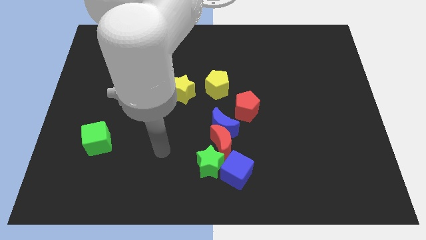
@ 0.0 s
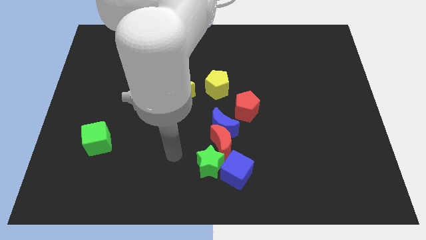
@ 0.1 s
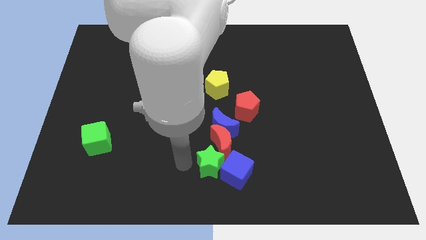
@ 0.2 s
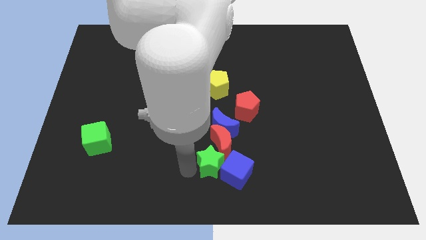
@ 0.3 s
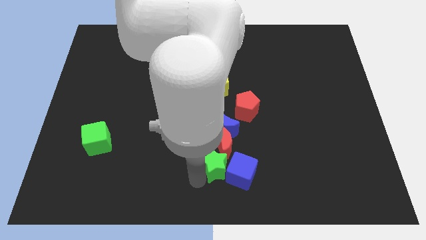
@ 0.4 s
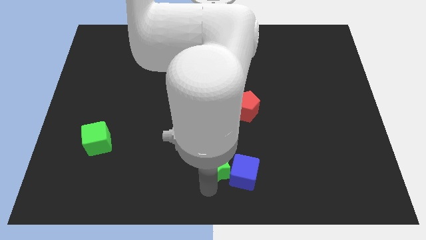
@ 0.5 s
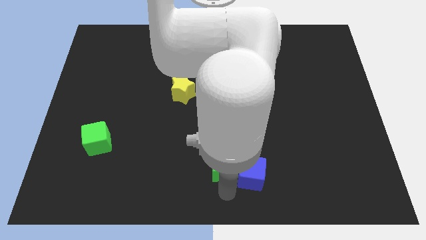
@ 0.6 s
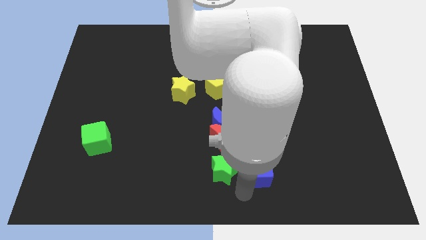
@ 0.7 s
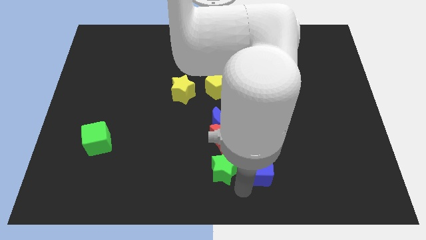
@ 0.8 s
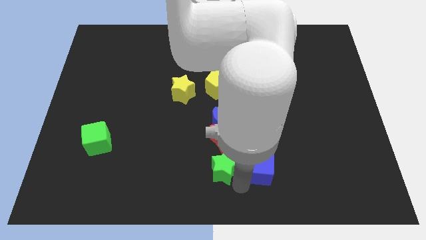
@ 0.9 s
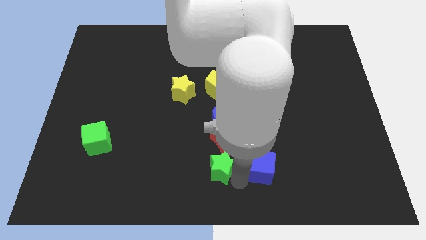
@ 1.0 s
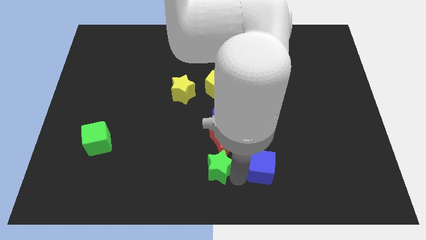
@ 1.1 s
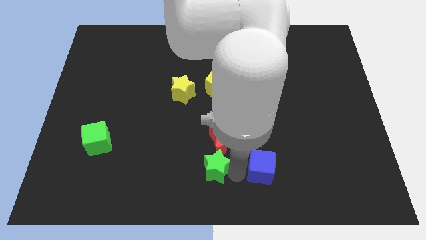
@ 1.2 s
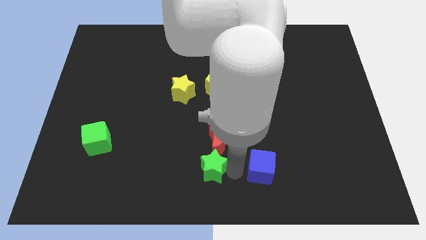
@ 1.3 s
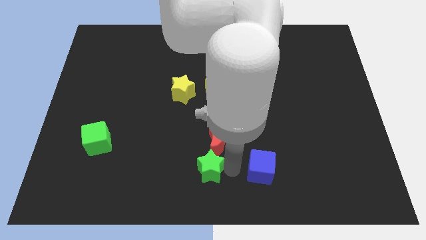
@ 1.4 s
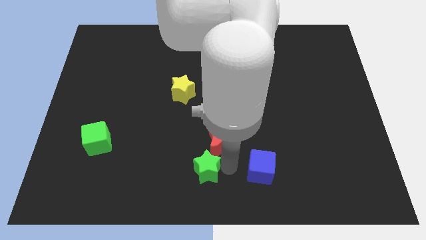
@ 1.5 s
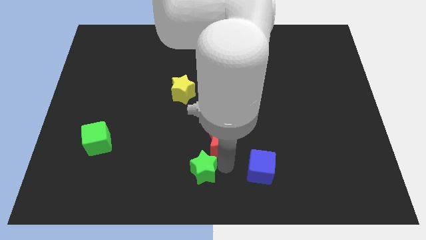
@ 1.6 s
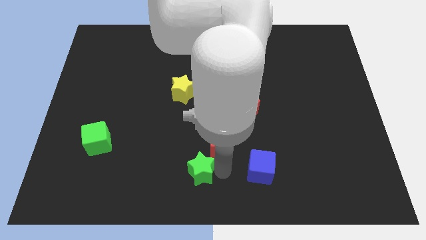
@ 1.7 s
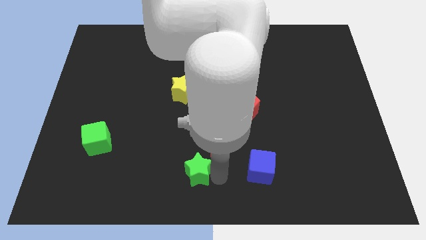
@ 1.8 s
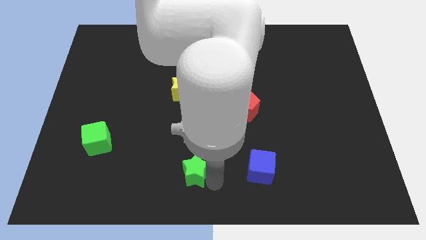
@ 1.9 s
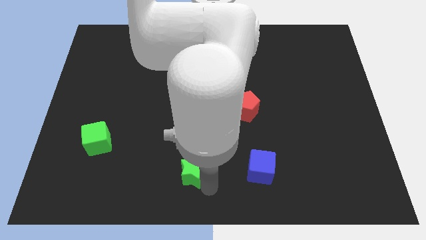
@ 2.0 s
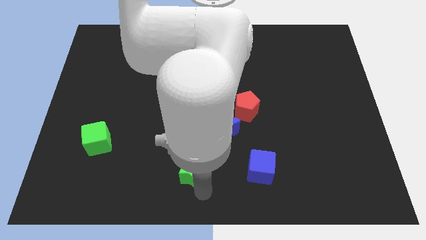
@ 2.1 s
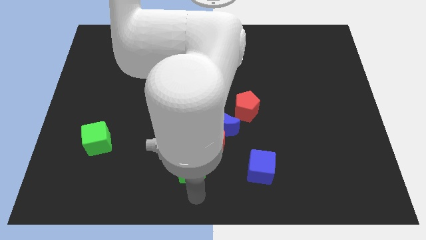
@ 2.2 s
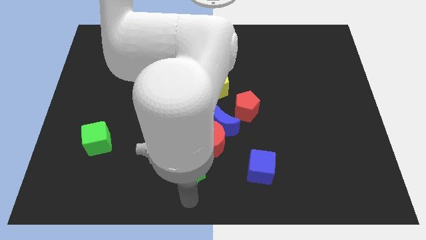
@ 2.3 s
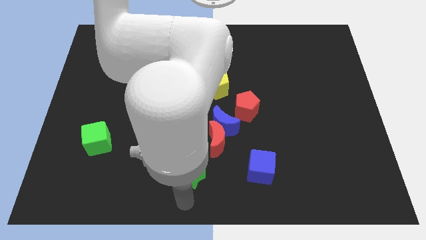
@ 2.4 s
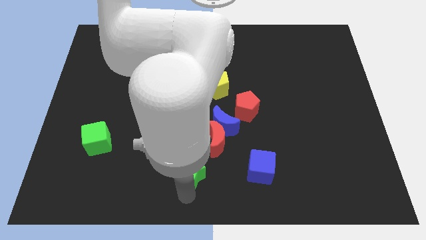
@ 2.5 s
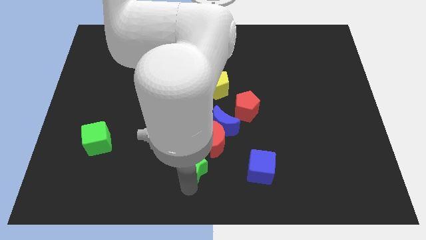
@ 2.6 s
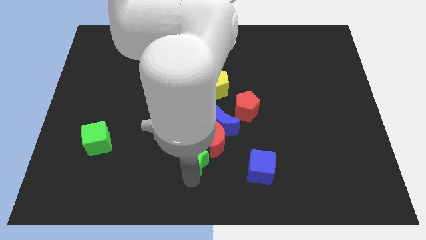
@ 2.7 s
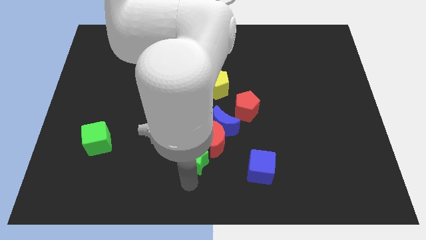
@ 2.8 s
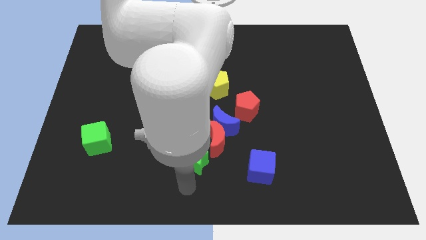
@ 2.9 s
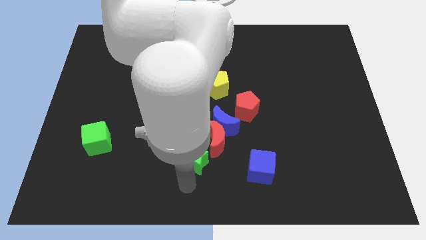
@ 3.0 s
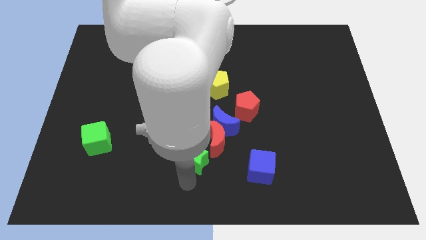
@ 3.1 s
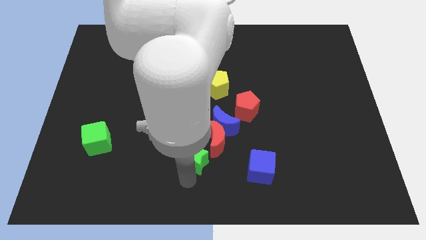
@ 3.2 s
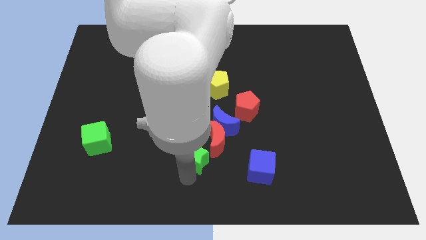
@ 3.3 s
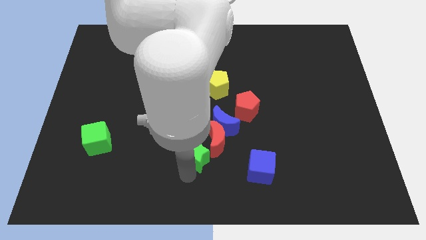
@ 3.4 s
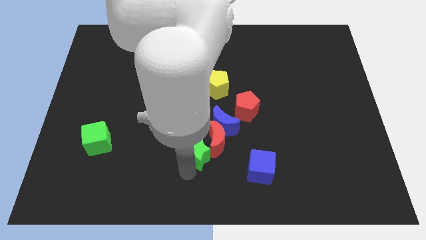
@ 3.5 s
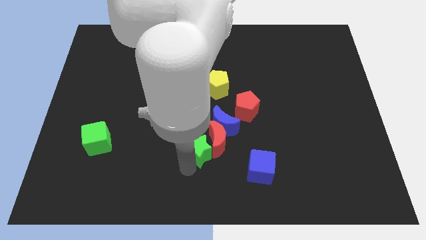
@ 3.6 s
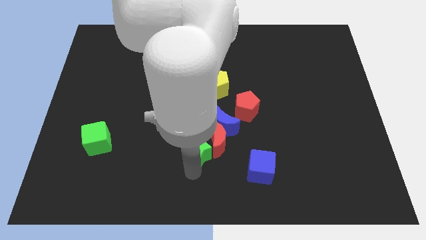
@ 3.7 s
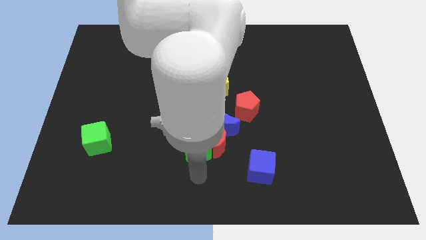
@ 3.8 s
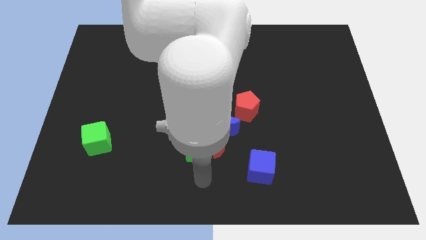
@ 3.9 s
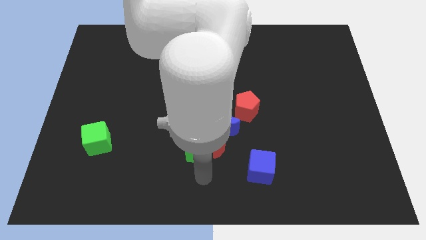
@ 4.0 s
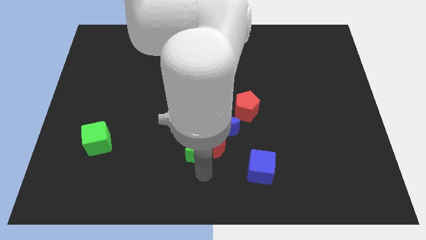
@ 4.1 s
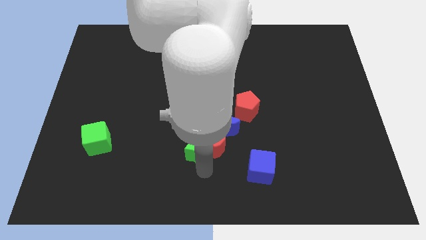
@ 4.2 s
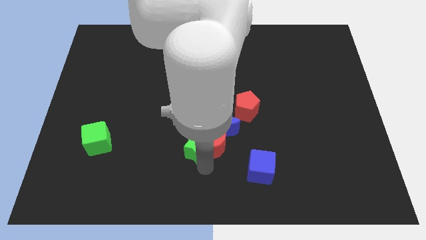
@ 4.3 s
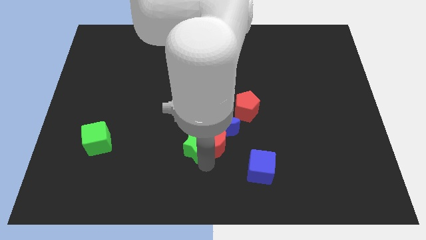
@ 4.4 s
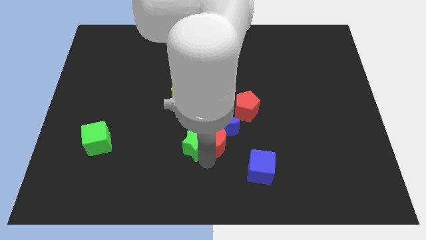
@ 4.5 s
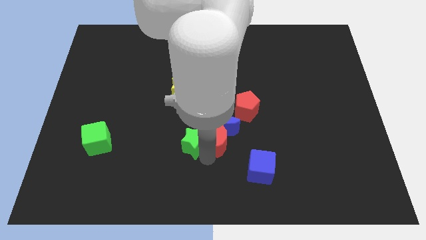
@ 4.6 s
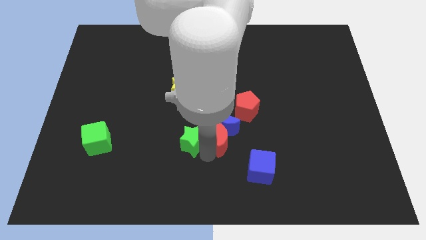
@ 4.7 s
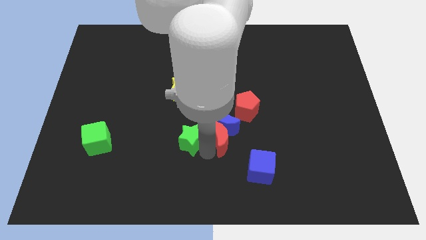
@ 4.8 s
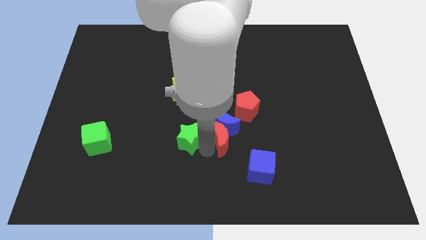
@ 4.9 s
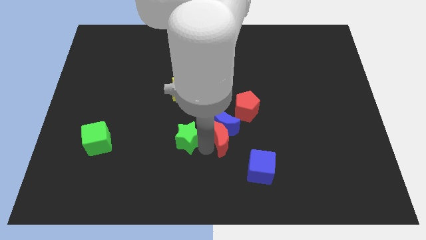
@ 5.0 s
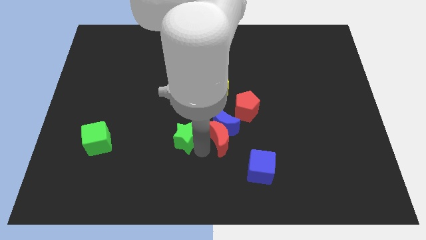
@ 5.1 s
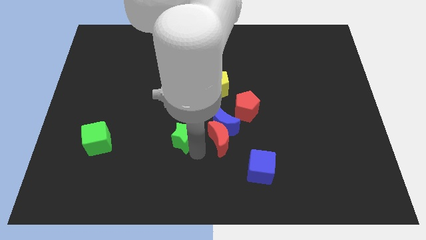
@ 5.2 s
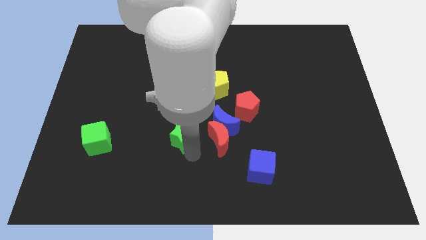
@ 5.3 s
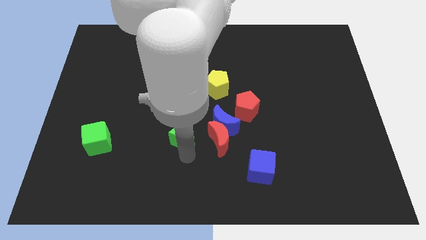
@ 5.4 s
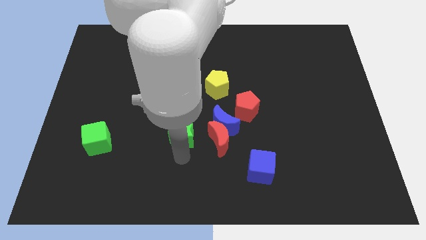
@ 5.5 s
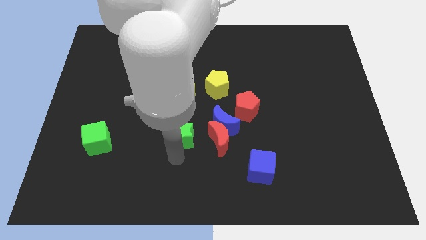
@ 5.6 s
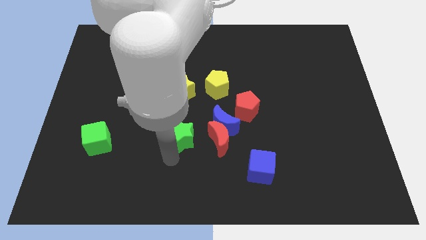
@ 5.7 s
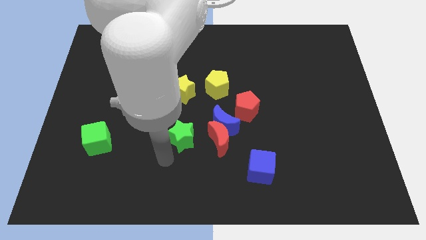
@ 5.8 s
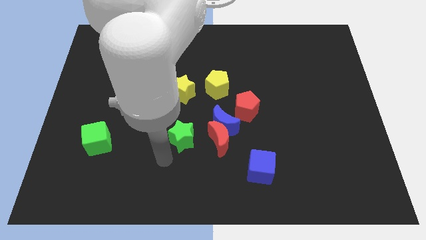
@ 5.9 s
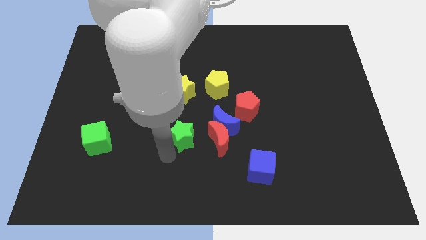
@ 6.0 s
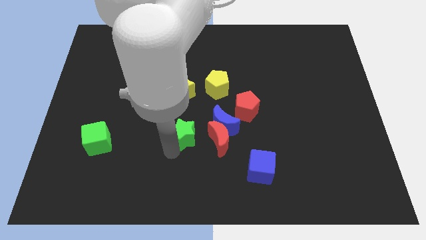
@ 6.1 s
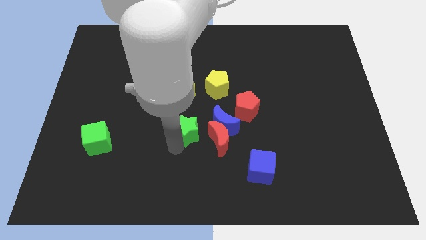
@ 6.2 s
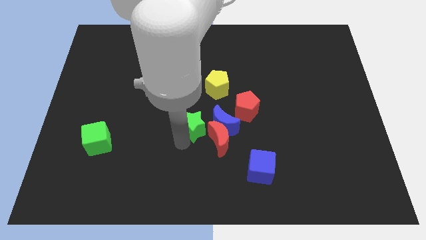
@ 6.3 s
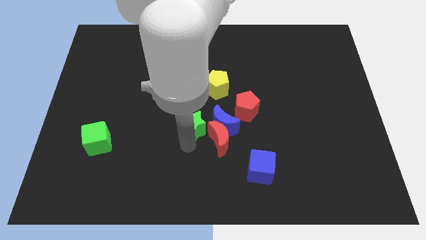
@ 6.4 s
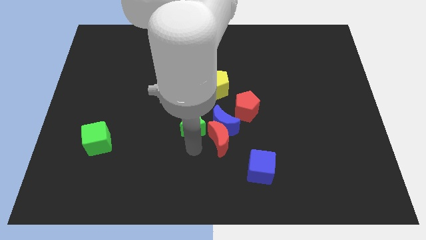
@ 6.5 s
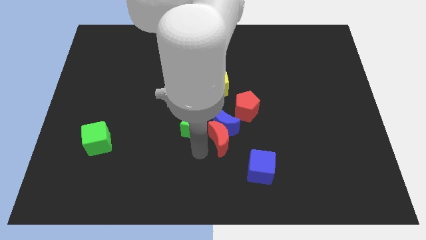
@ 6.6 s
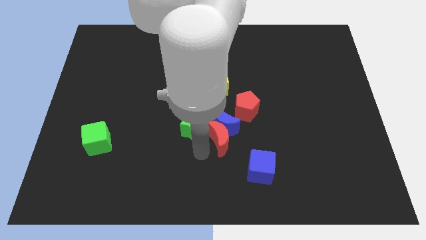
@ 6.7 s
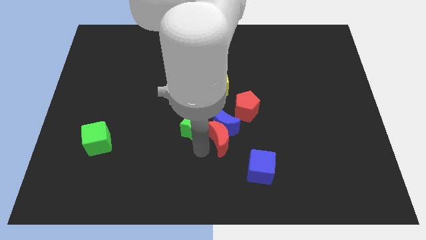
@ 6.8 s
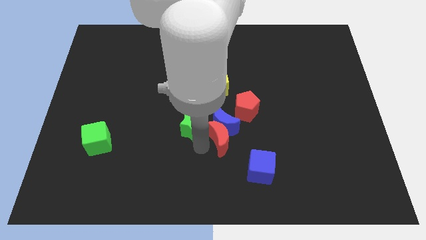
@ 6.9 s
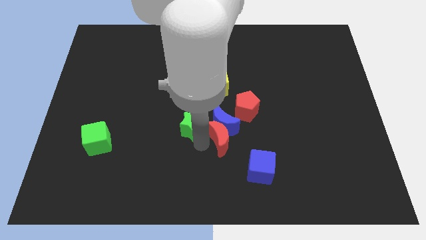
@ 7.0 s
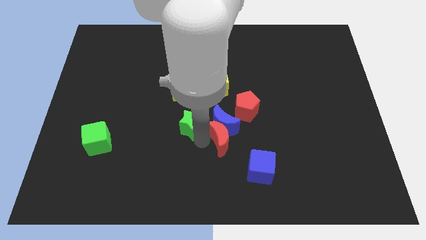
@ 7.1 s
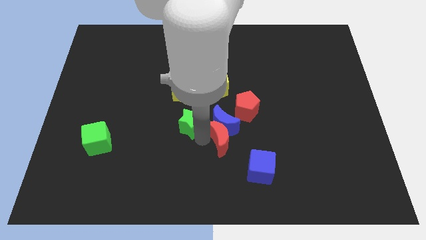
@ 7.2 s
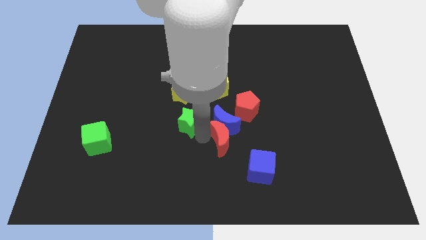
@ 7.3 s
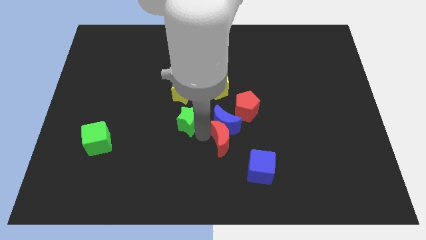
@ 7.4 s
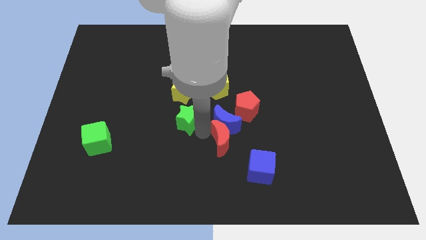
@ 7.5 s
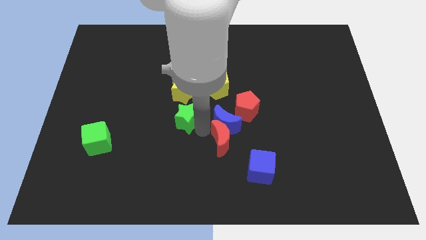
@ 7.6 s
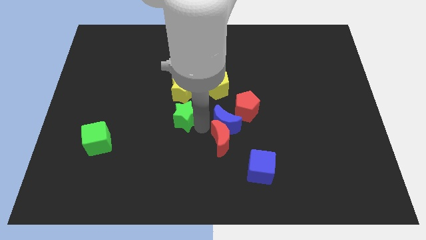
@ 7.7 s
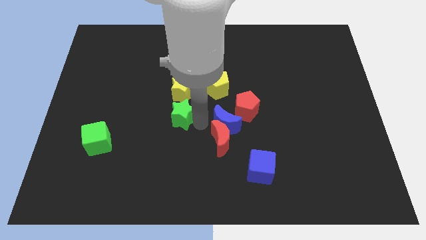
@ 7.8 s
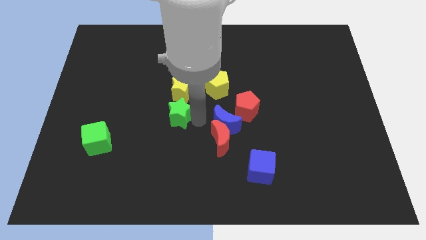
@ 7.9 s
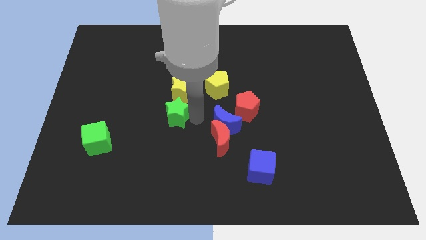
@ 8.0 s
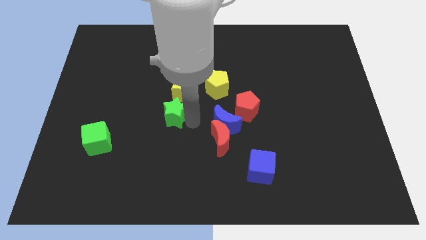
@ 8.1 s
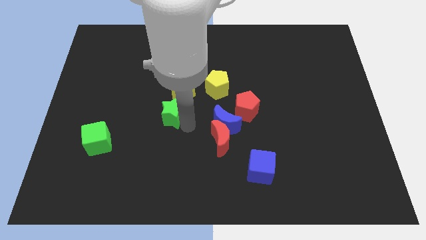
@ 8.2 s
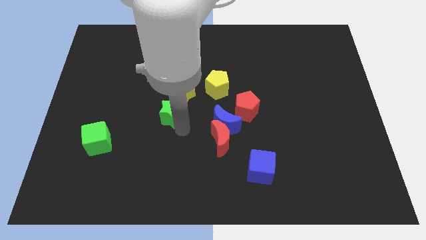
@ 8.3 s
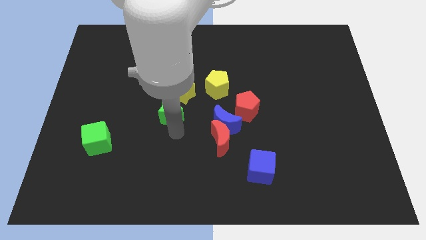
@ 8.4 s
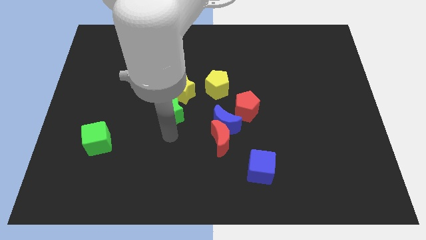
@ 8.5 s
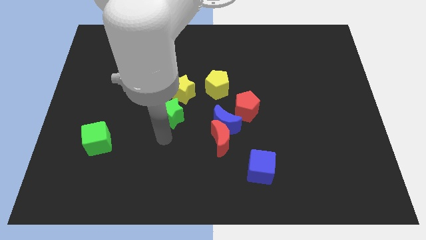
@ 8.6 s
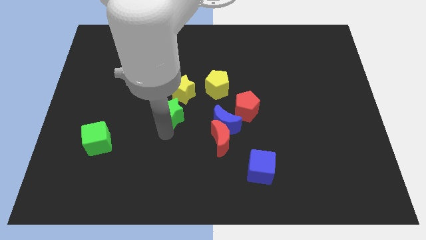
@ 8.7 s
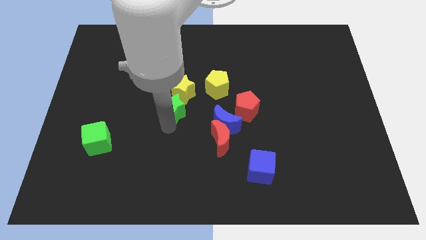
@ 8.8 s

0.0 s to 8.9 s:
put the green star next to the yellow star
